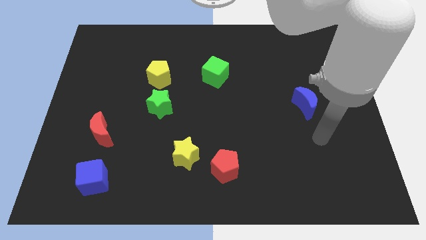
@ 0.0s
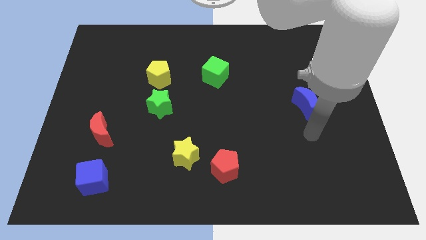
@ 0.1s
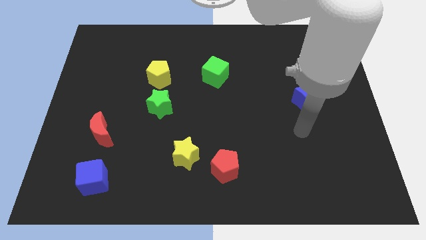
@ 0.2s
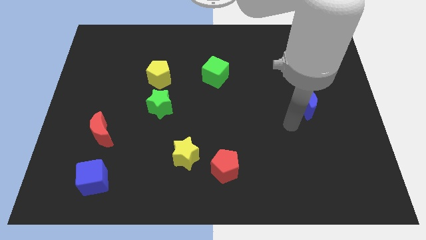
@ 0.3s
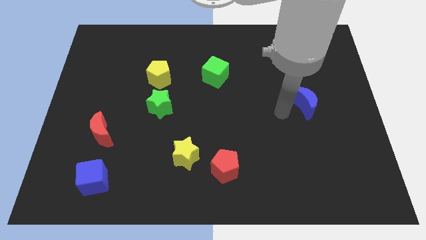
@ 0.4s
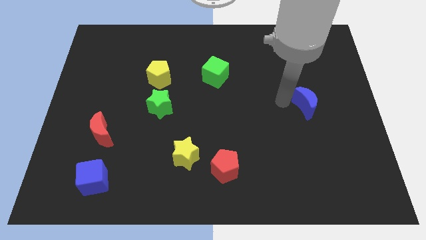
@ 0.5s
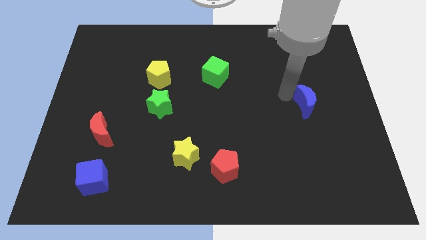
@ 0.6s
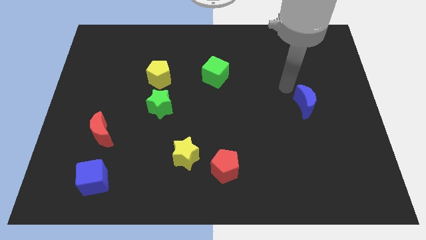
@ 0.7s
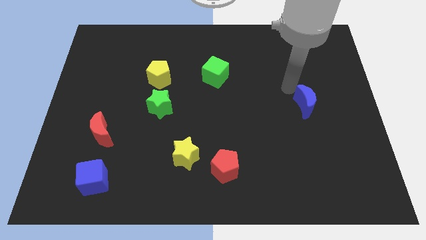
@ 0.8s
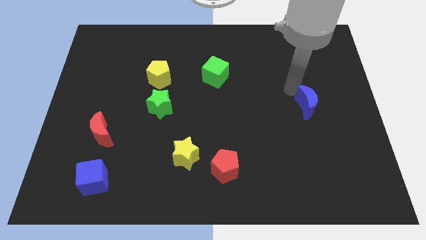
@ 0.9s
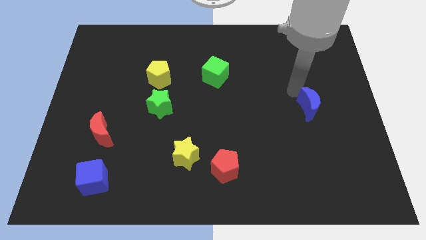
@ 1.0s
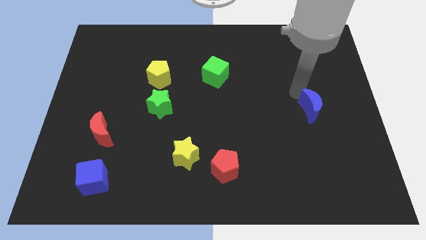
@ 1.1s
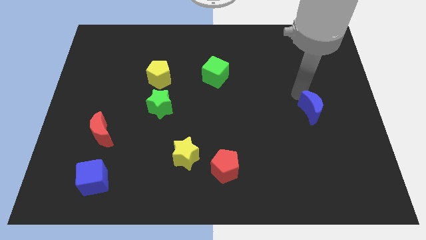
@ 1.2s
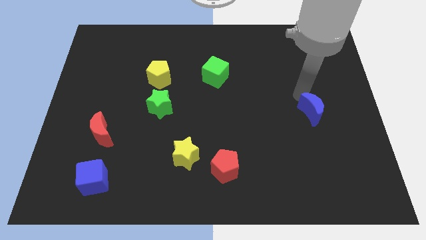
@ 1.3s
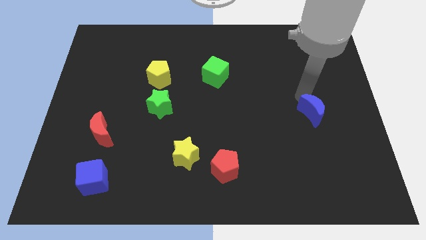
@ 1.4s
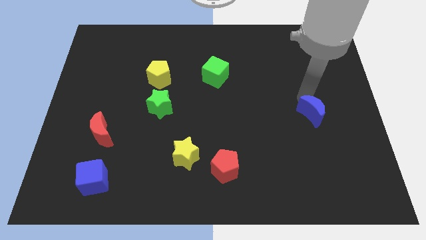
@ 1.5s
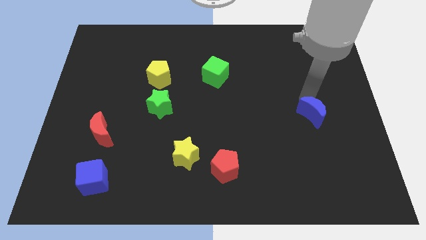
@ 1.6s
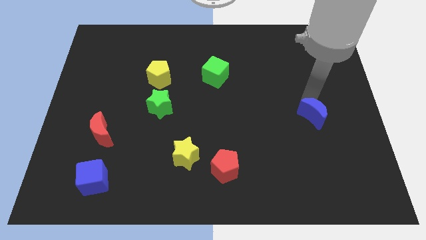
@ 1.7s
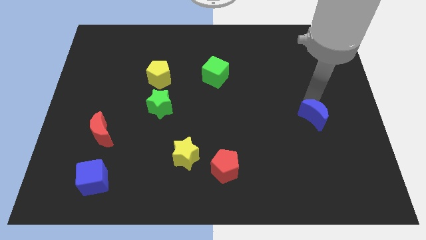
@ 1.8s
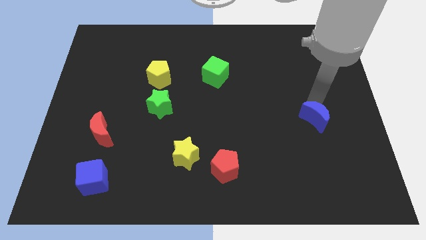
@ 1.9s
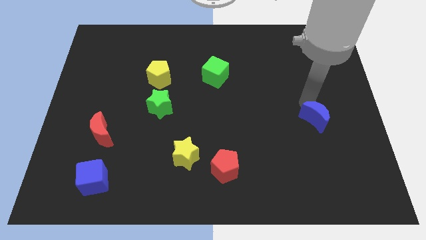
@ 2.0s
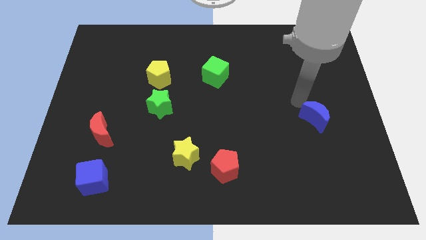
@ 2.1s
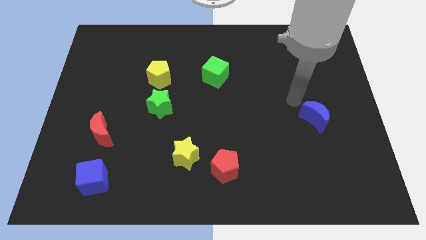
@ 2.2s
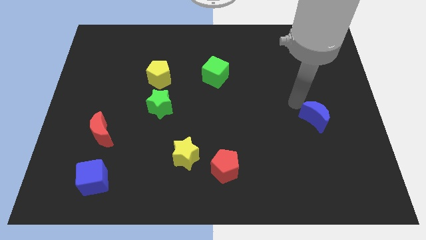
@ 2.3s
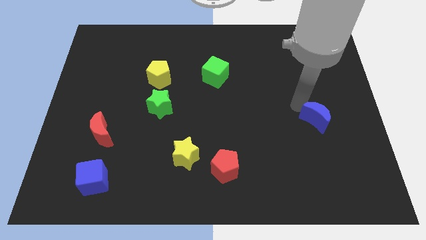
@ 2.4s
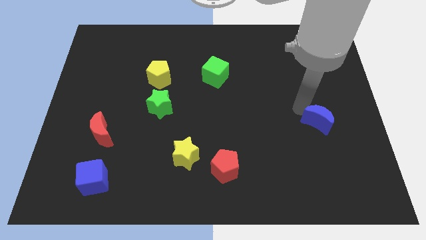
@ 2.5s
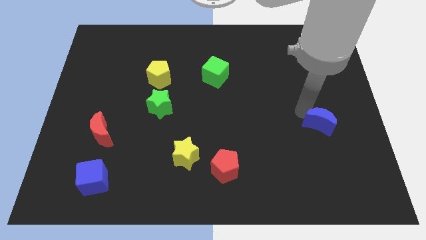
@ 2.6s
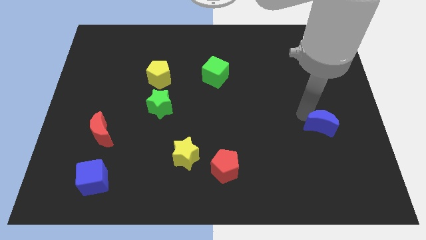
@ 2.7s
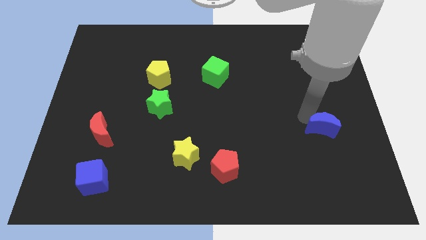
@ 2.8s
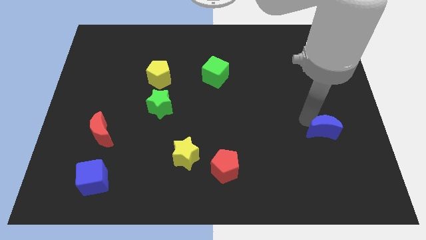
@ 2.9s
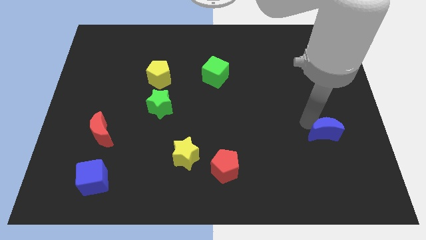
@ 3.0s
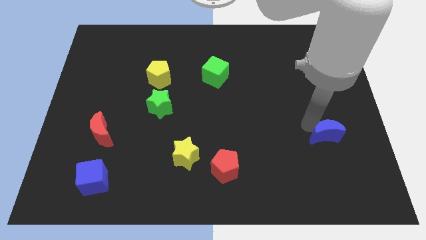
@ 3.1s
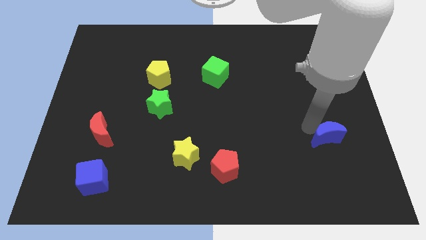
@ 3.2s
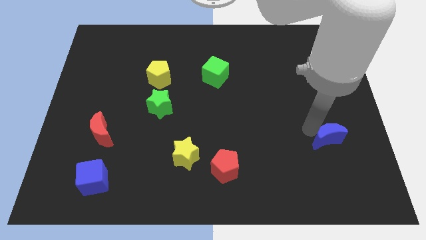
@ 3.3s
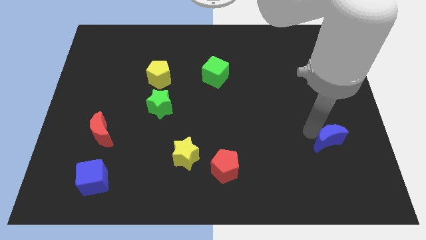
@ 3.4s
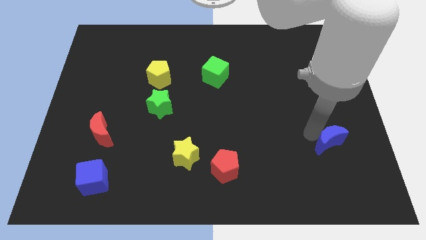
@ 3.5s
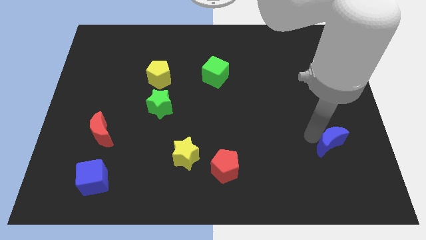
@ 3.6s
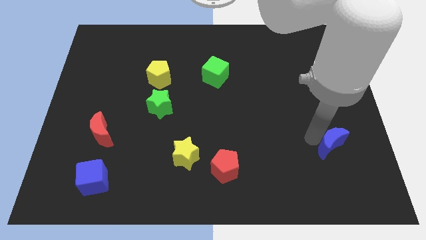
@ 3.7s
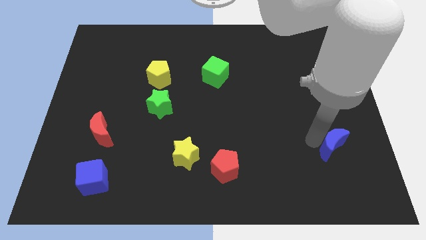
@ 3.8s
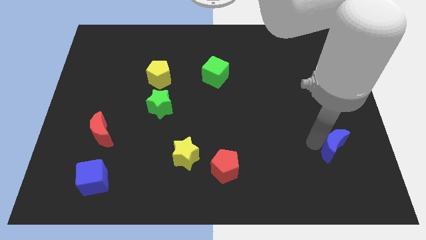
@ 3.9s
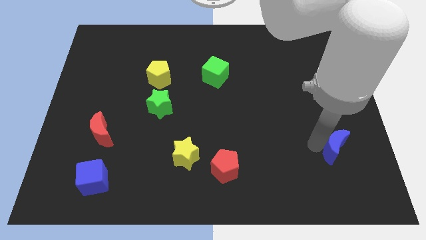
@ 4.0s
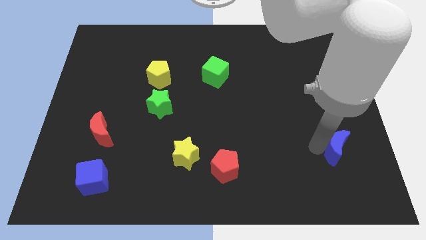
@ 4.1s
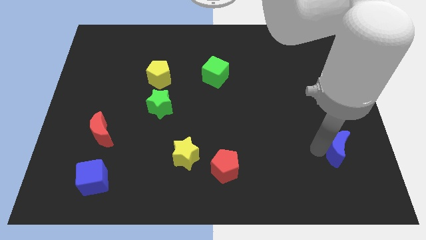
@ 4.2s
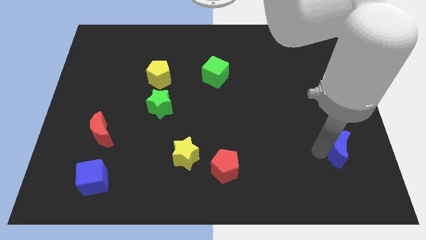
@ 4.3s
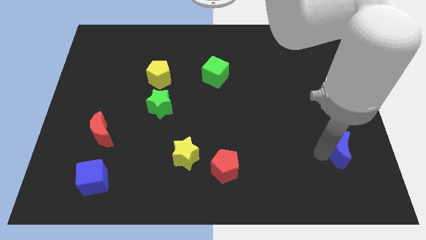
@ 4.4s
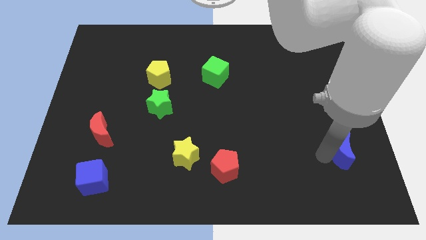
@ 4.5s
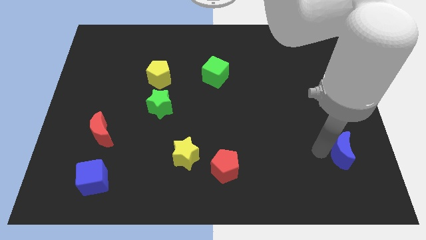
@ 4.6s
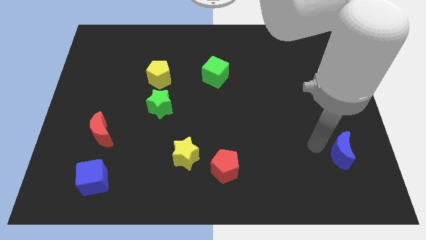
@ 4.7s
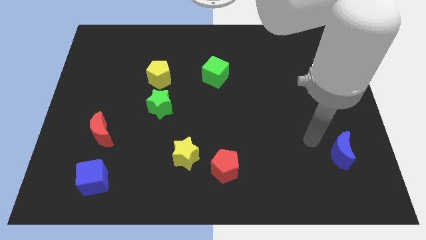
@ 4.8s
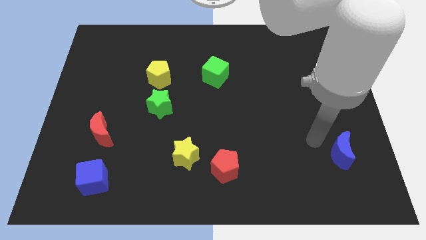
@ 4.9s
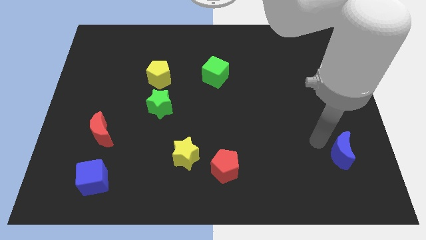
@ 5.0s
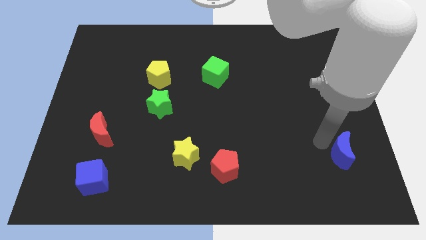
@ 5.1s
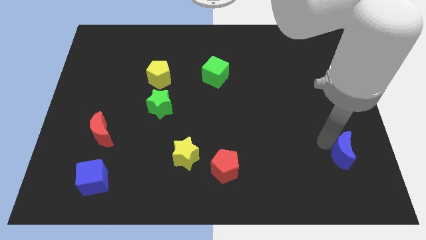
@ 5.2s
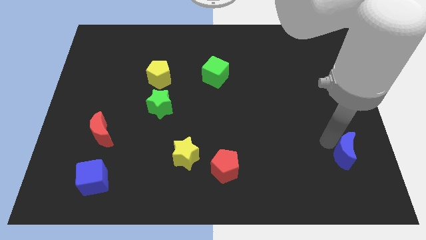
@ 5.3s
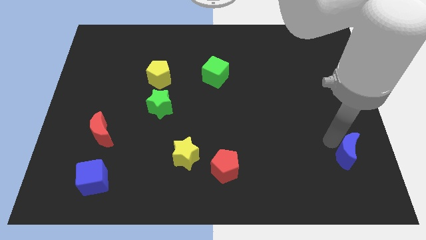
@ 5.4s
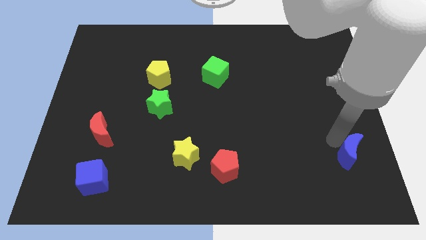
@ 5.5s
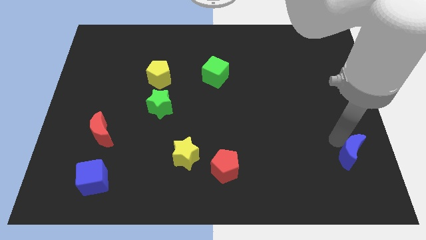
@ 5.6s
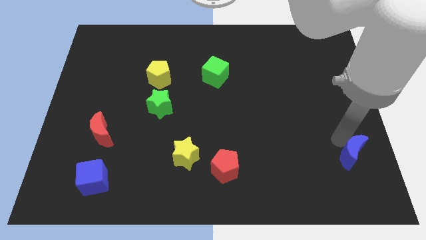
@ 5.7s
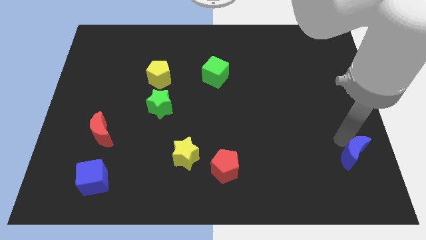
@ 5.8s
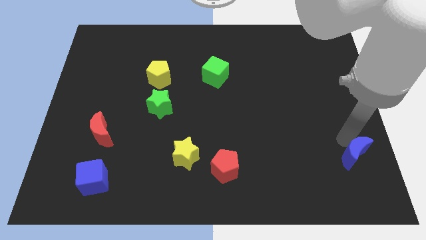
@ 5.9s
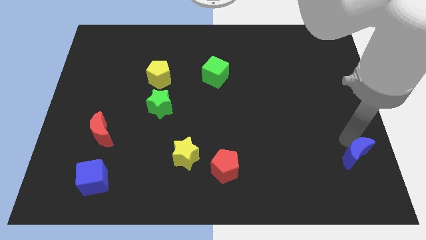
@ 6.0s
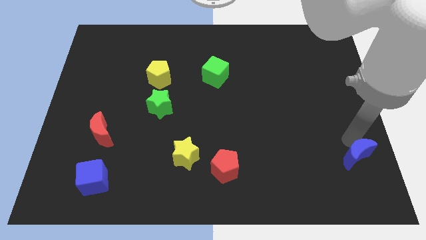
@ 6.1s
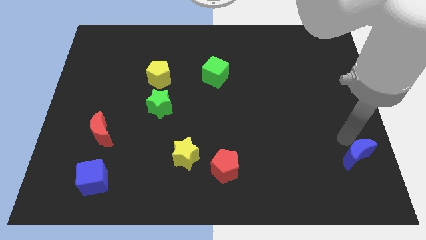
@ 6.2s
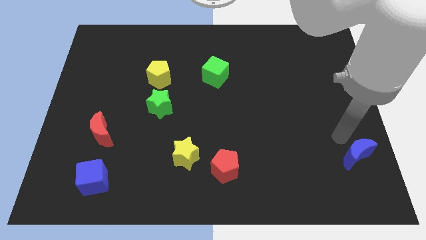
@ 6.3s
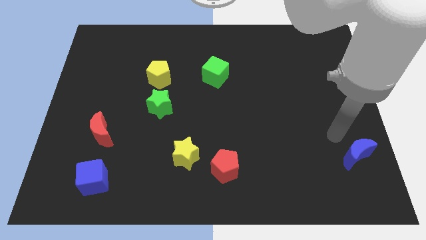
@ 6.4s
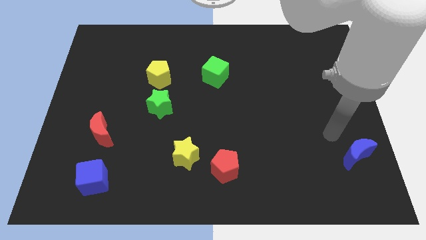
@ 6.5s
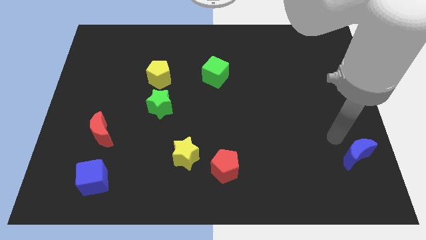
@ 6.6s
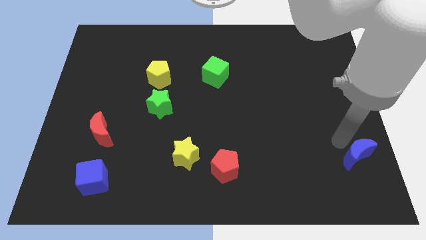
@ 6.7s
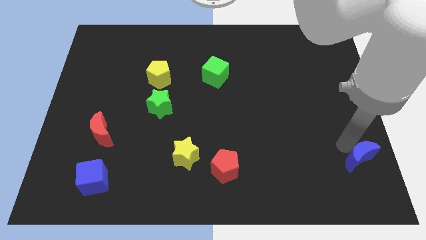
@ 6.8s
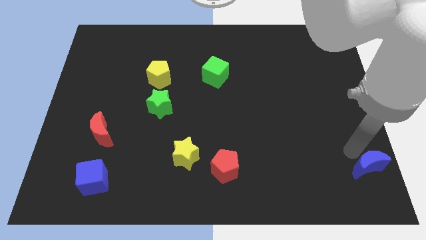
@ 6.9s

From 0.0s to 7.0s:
move the blue moon to the bottom right of the board

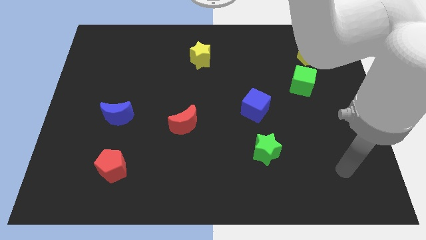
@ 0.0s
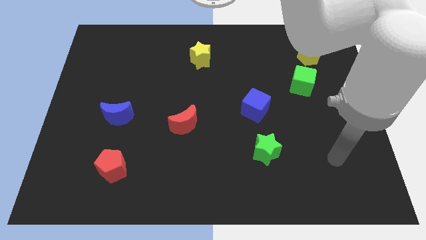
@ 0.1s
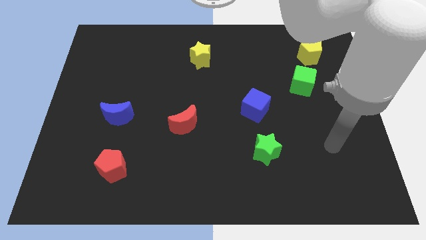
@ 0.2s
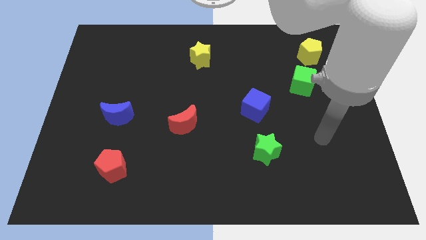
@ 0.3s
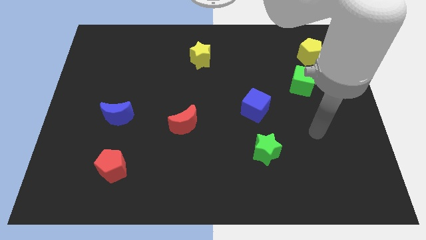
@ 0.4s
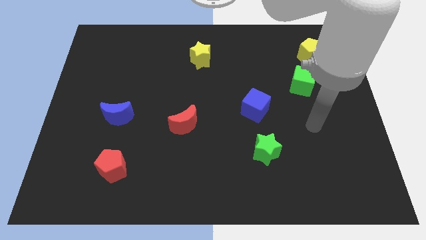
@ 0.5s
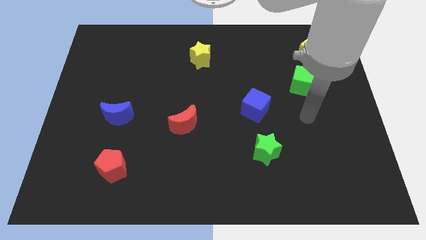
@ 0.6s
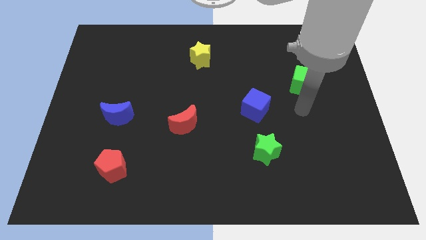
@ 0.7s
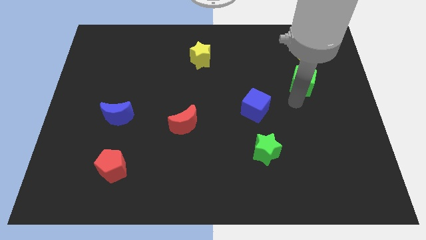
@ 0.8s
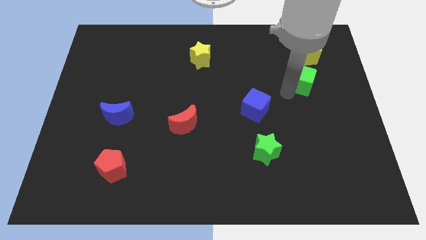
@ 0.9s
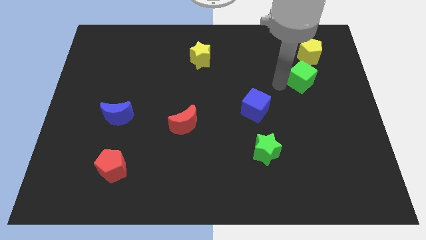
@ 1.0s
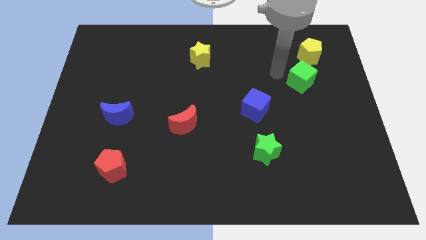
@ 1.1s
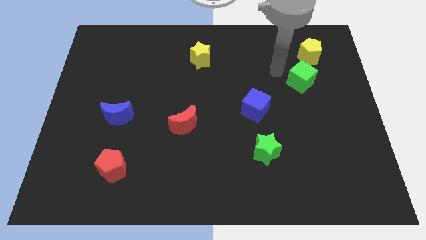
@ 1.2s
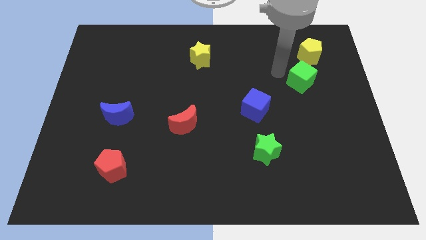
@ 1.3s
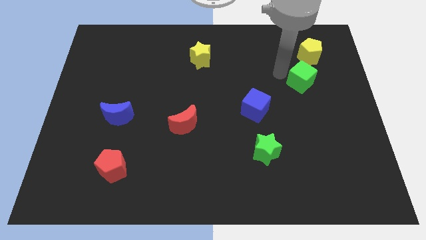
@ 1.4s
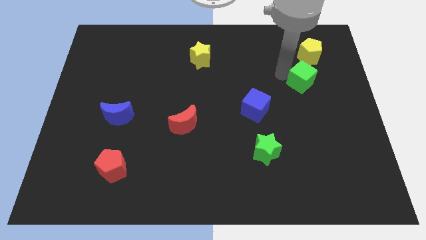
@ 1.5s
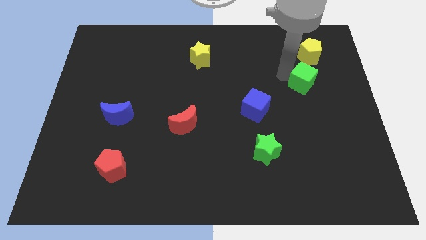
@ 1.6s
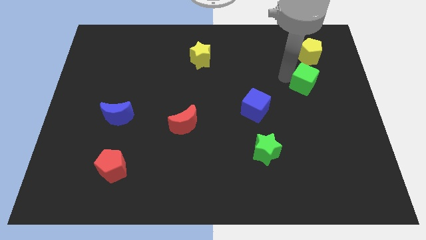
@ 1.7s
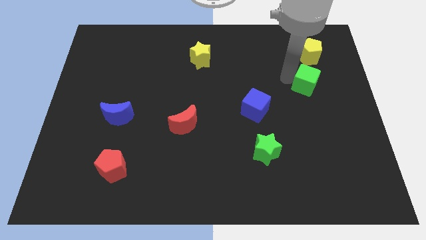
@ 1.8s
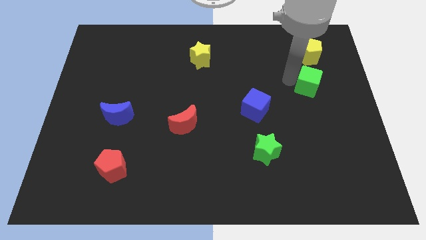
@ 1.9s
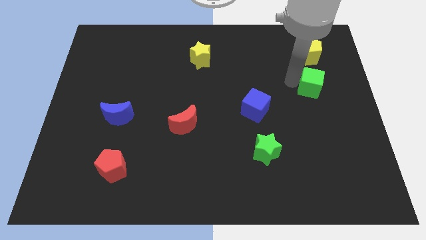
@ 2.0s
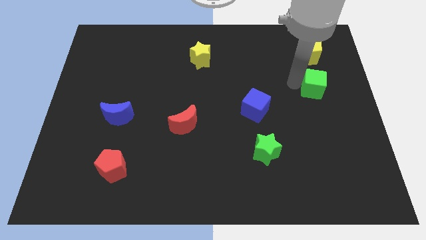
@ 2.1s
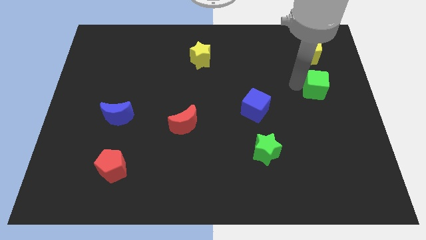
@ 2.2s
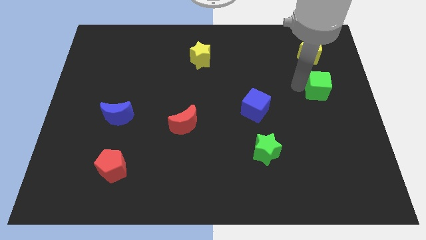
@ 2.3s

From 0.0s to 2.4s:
put the green cube to the center right
